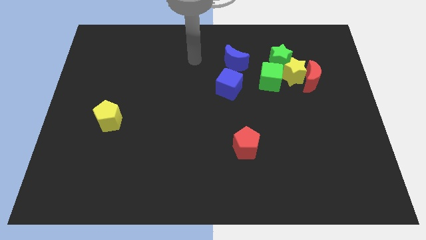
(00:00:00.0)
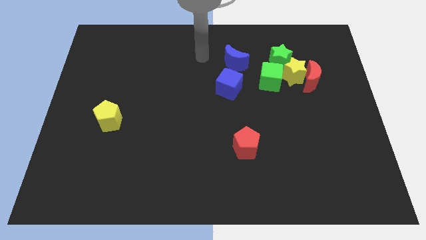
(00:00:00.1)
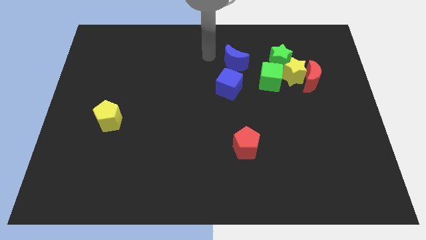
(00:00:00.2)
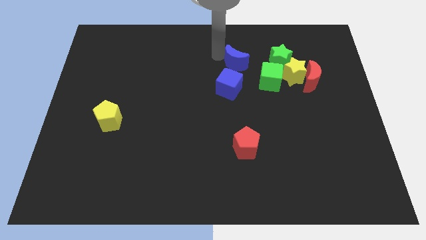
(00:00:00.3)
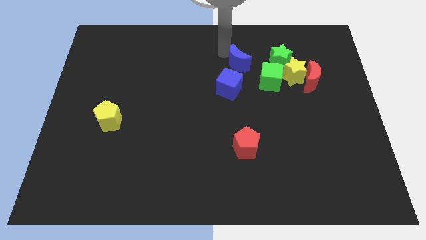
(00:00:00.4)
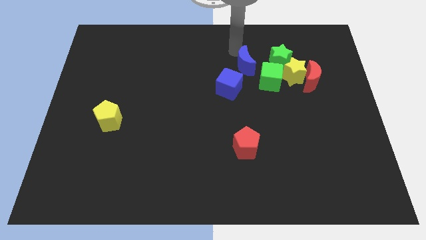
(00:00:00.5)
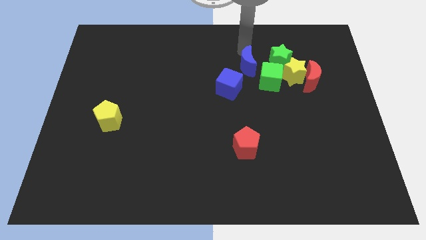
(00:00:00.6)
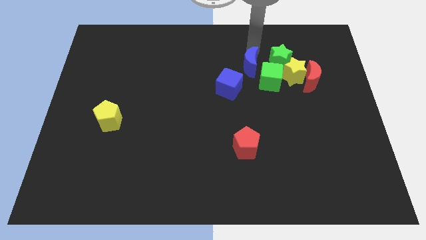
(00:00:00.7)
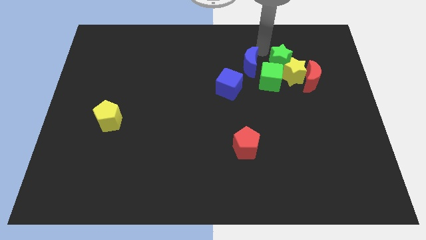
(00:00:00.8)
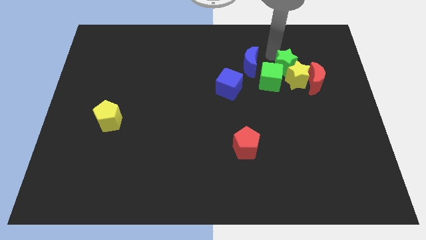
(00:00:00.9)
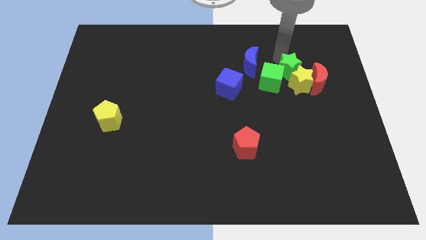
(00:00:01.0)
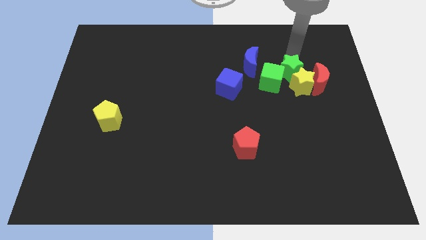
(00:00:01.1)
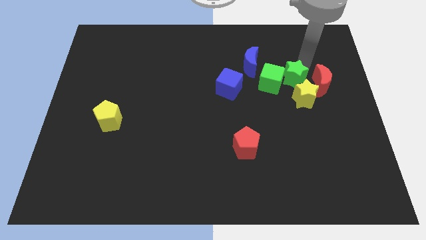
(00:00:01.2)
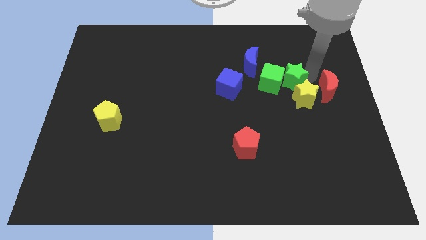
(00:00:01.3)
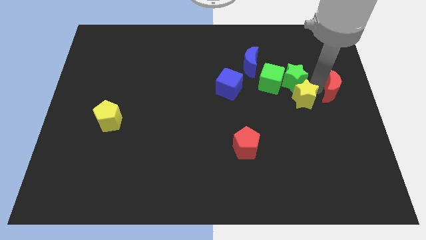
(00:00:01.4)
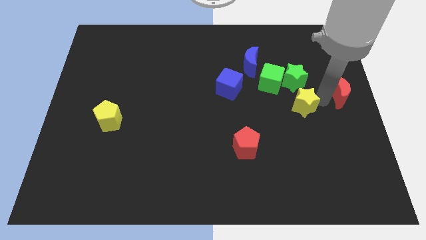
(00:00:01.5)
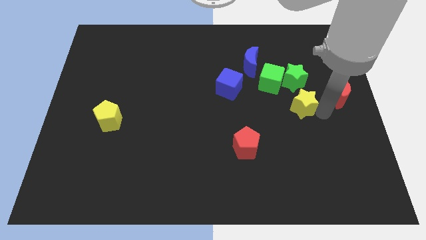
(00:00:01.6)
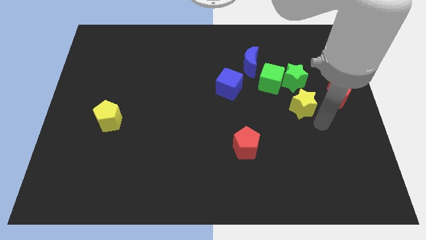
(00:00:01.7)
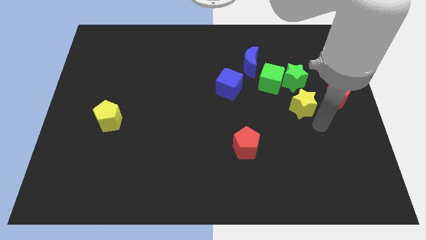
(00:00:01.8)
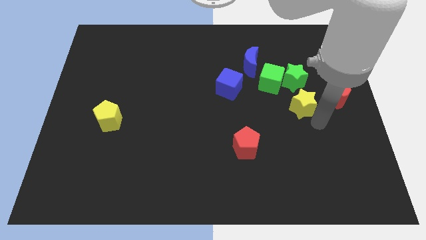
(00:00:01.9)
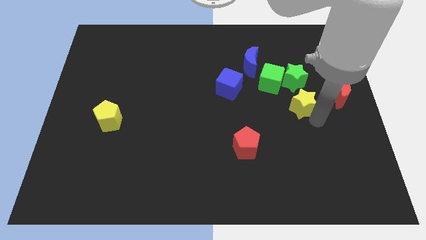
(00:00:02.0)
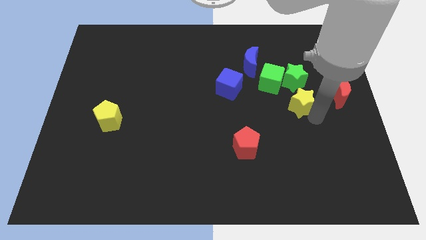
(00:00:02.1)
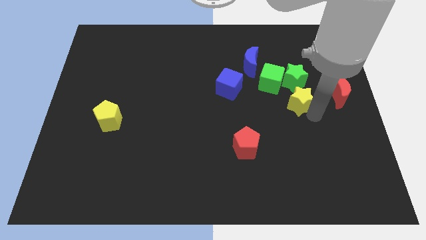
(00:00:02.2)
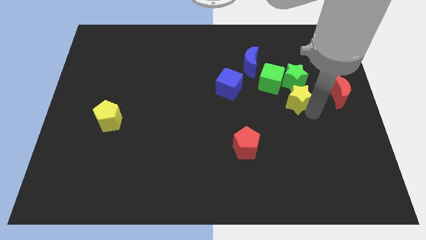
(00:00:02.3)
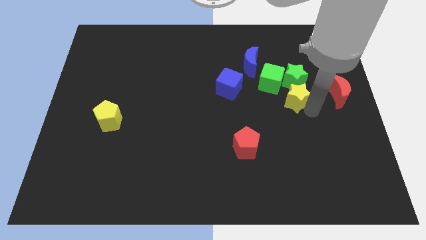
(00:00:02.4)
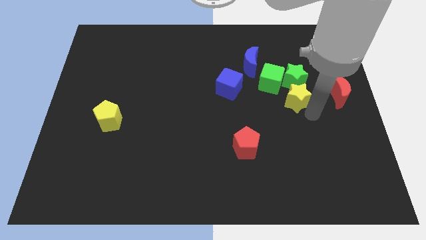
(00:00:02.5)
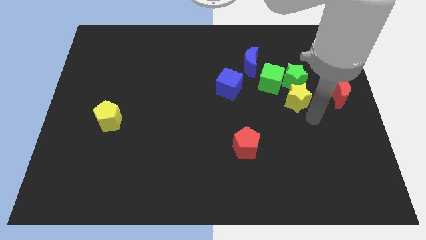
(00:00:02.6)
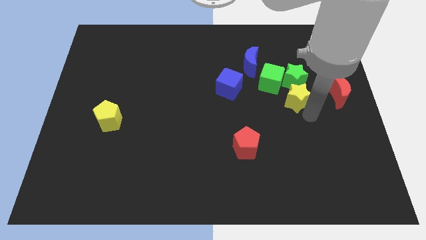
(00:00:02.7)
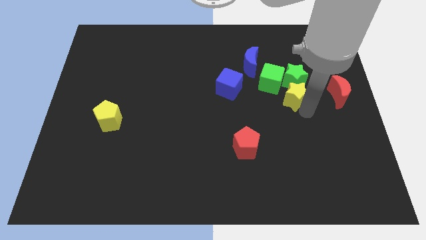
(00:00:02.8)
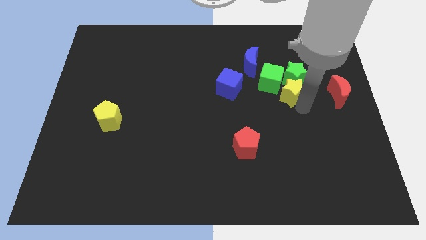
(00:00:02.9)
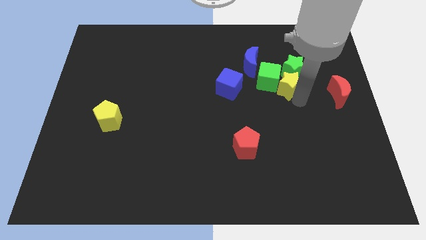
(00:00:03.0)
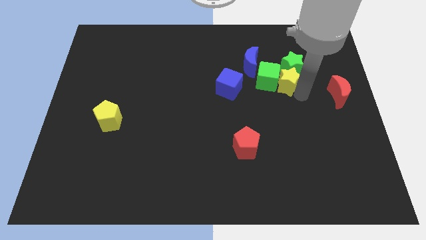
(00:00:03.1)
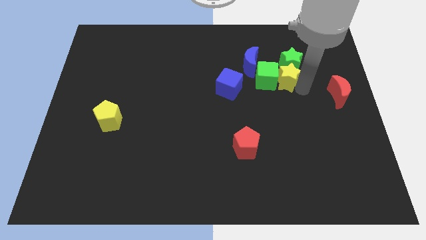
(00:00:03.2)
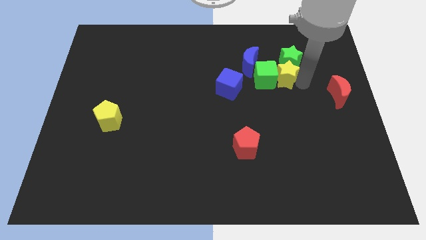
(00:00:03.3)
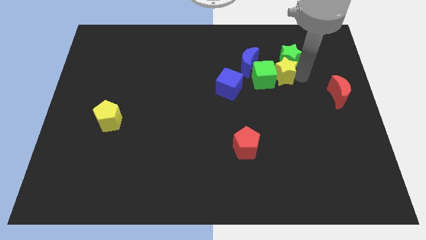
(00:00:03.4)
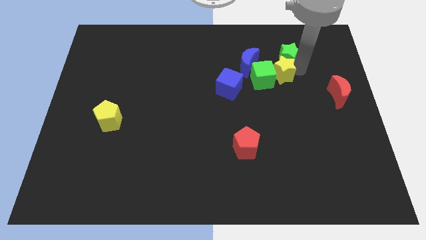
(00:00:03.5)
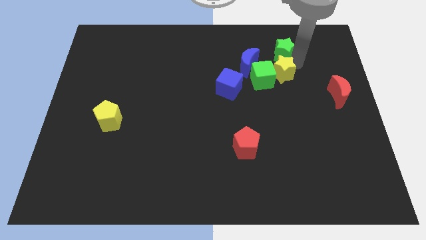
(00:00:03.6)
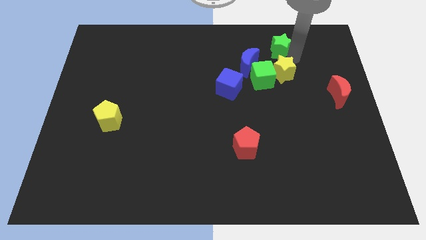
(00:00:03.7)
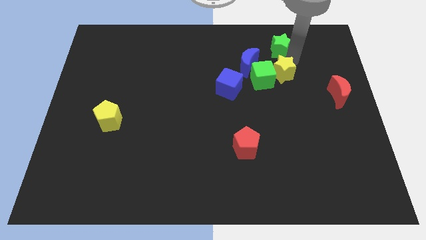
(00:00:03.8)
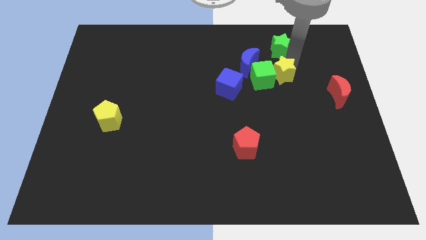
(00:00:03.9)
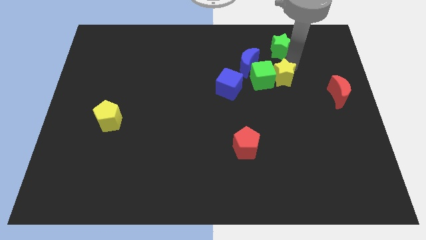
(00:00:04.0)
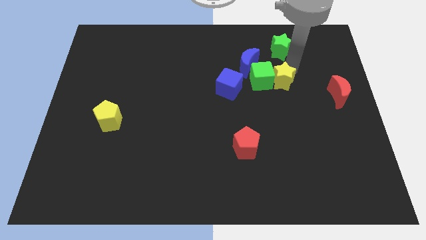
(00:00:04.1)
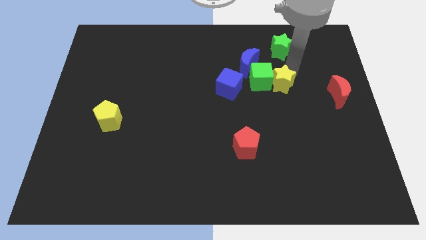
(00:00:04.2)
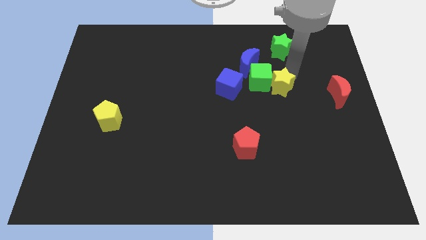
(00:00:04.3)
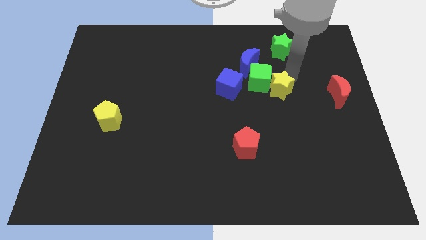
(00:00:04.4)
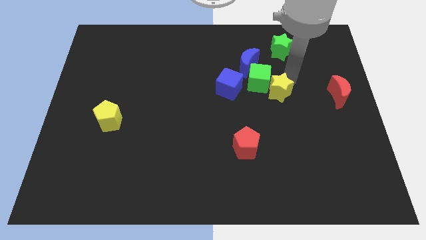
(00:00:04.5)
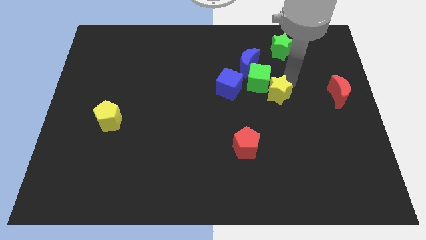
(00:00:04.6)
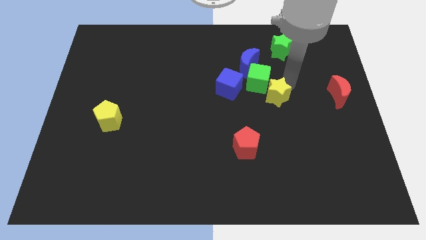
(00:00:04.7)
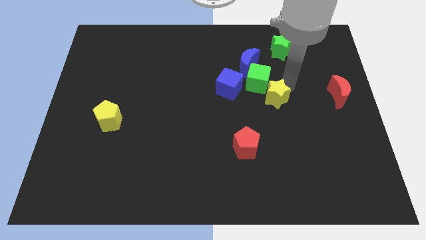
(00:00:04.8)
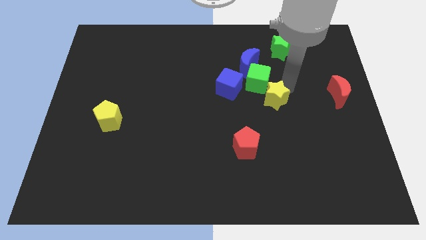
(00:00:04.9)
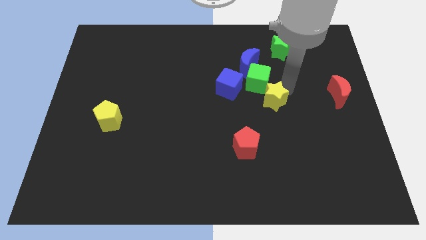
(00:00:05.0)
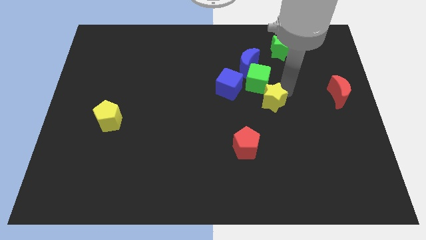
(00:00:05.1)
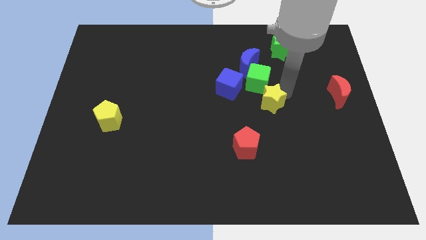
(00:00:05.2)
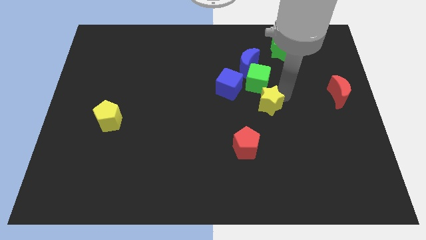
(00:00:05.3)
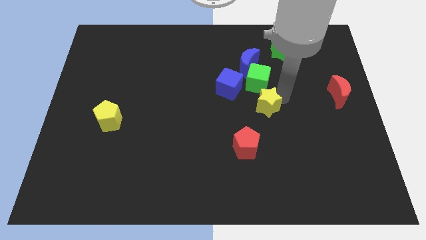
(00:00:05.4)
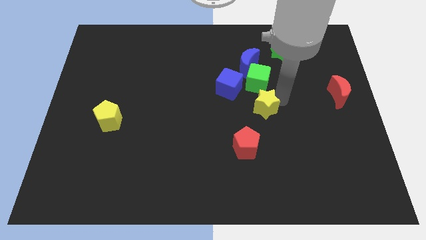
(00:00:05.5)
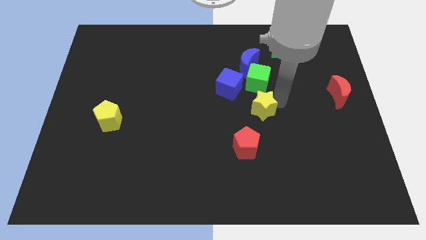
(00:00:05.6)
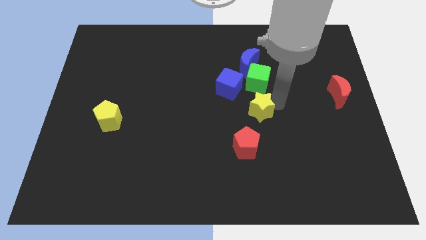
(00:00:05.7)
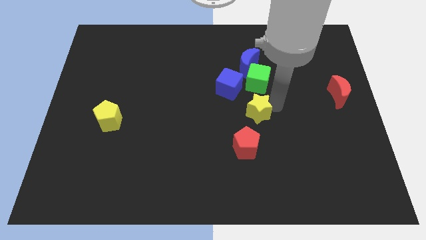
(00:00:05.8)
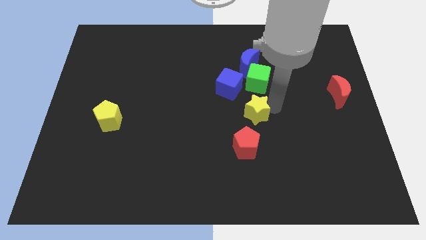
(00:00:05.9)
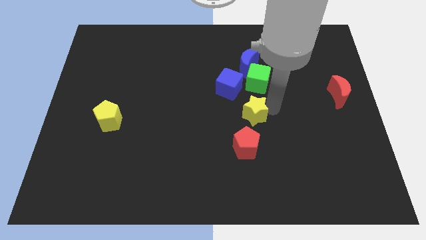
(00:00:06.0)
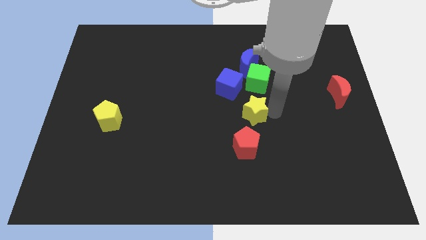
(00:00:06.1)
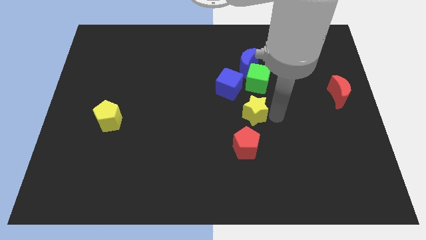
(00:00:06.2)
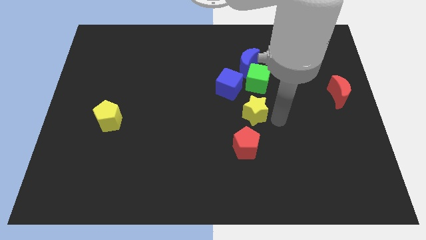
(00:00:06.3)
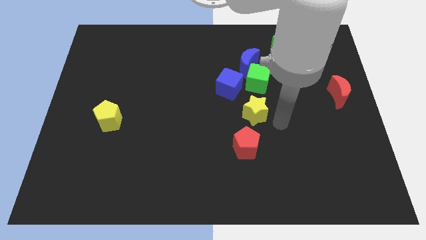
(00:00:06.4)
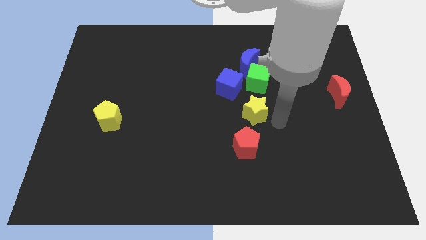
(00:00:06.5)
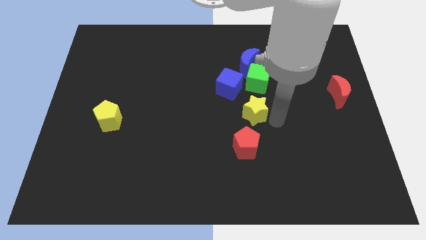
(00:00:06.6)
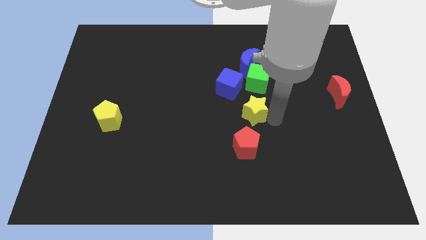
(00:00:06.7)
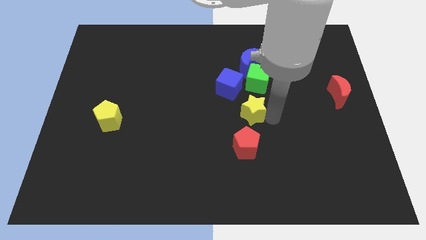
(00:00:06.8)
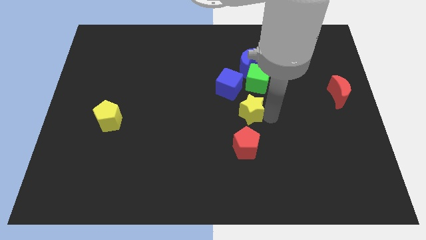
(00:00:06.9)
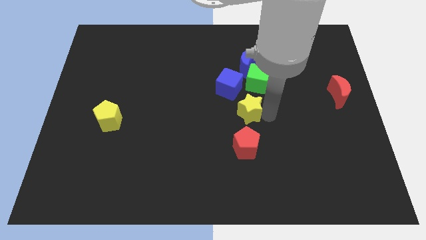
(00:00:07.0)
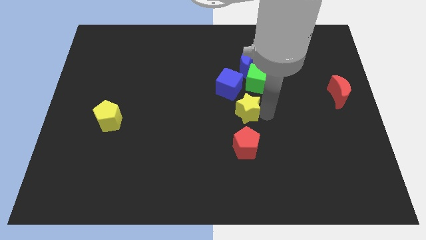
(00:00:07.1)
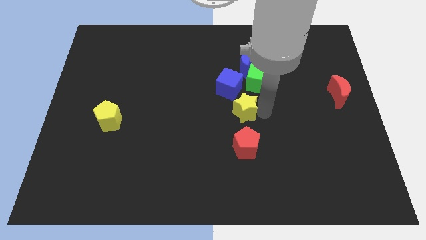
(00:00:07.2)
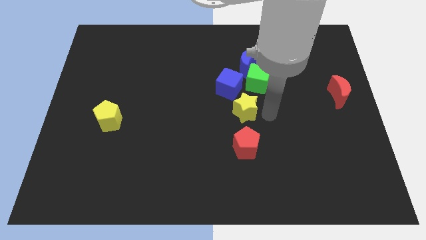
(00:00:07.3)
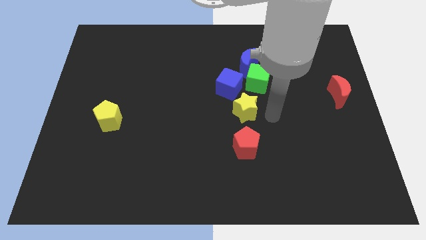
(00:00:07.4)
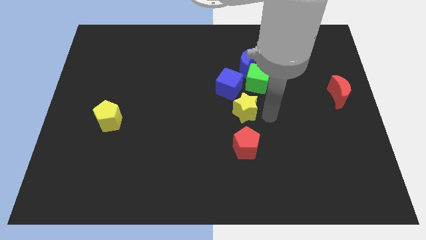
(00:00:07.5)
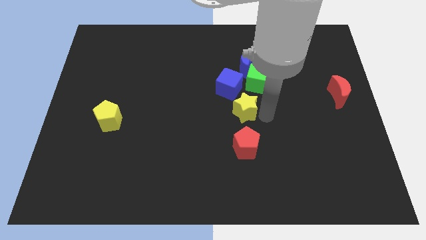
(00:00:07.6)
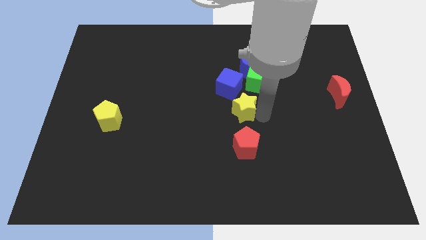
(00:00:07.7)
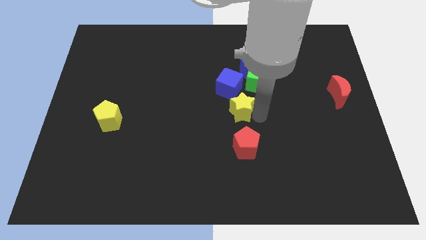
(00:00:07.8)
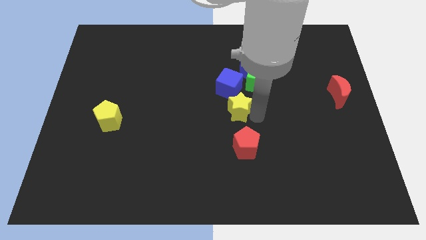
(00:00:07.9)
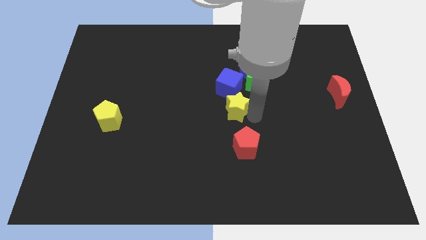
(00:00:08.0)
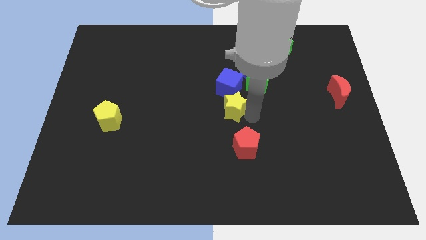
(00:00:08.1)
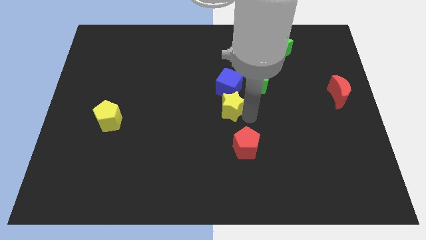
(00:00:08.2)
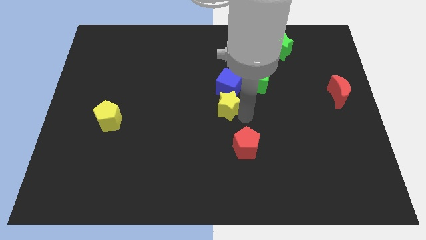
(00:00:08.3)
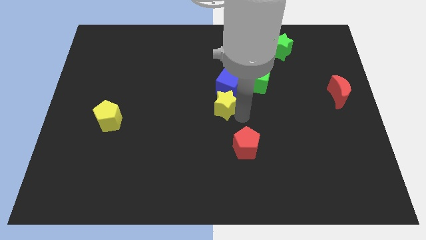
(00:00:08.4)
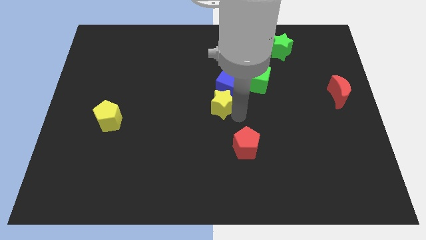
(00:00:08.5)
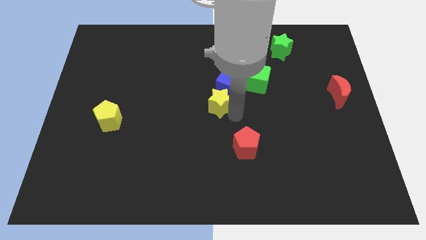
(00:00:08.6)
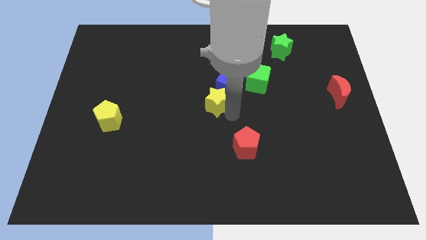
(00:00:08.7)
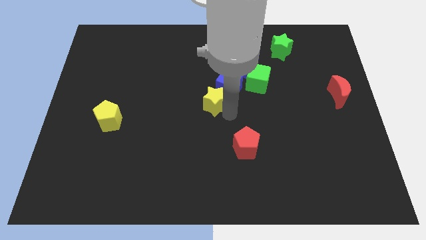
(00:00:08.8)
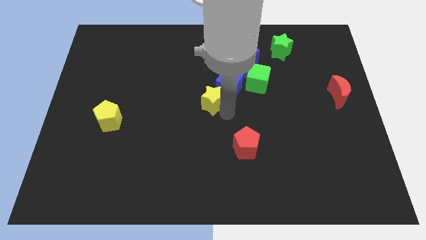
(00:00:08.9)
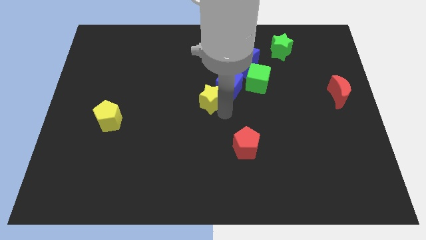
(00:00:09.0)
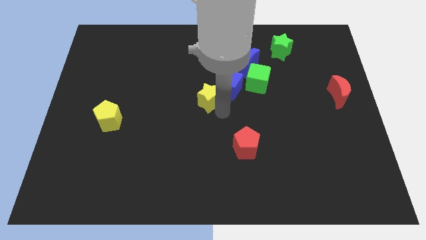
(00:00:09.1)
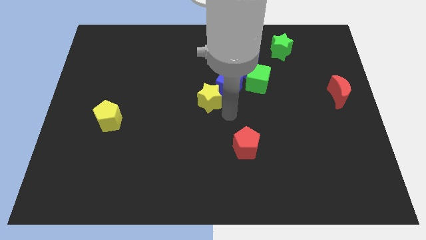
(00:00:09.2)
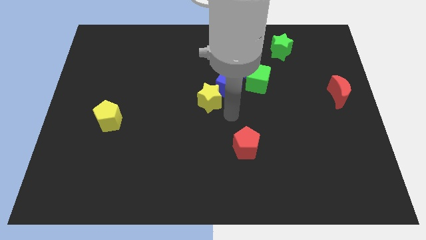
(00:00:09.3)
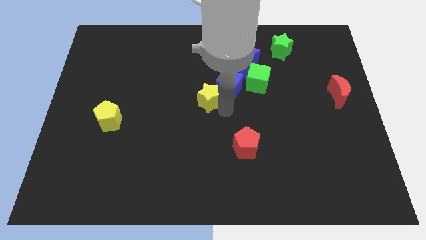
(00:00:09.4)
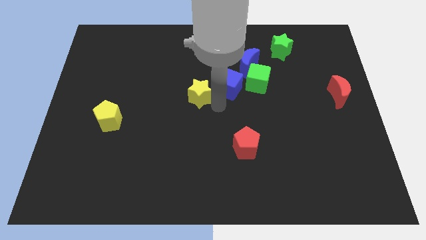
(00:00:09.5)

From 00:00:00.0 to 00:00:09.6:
move the yellow star to the left
